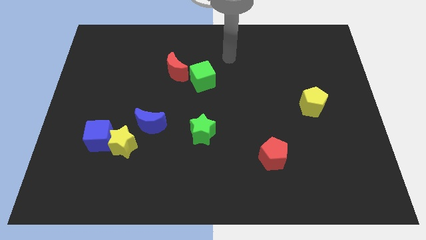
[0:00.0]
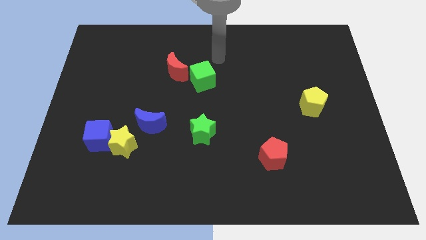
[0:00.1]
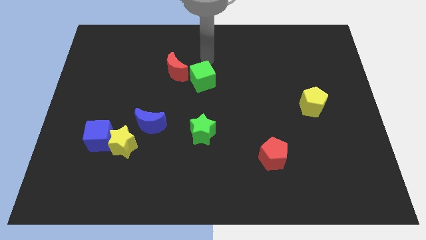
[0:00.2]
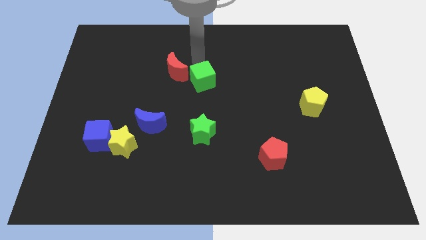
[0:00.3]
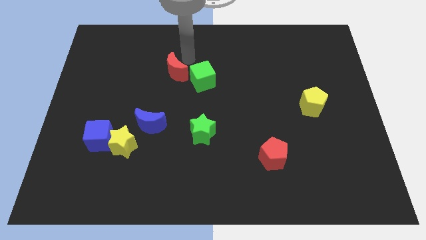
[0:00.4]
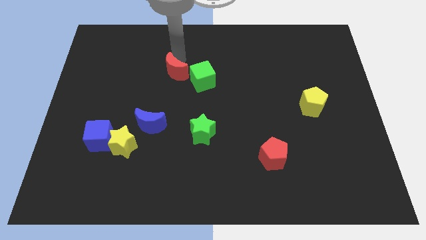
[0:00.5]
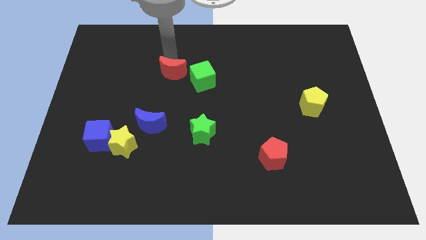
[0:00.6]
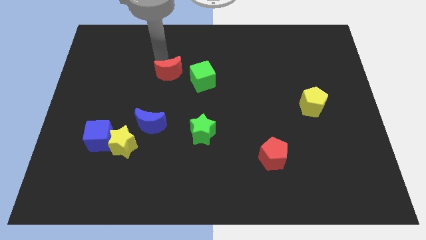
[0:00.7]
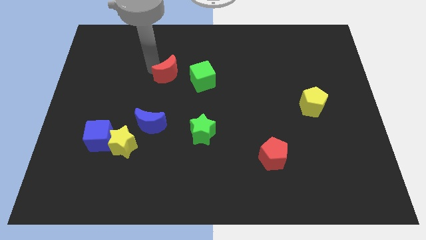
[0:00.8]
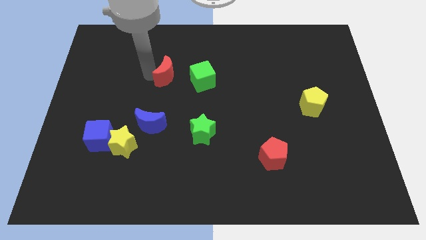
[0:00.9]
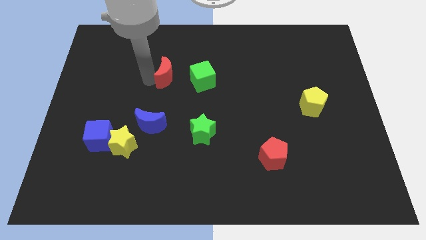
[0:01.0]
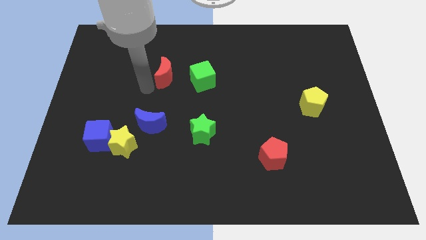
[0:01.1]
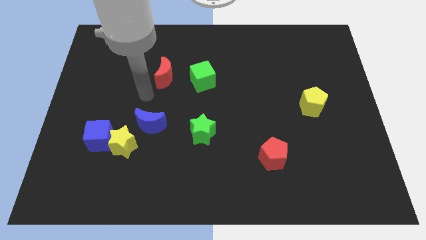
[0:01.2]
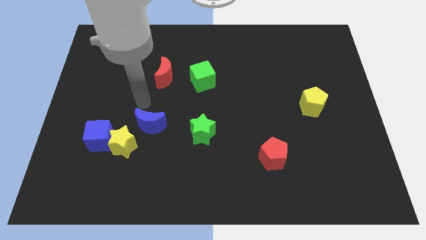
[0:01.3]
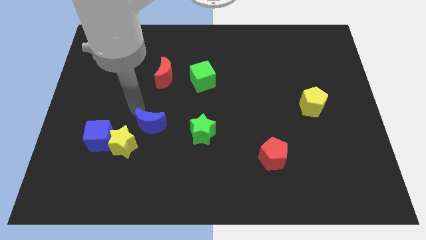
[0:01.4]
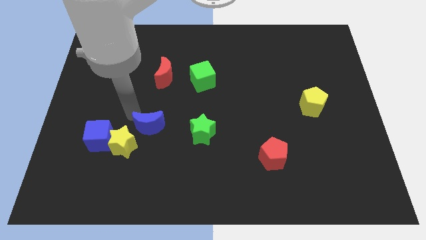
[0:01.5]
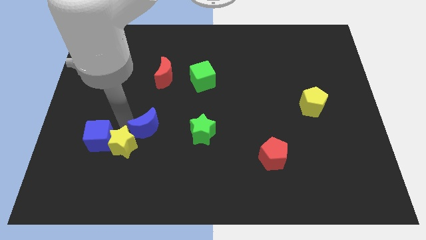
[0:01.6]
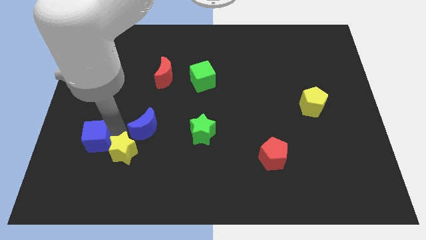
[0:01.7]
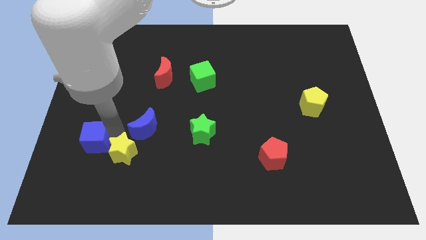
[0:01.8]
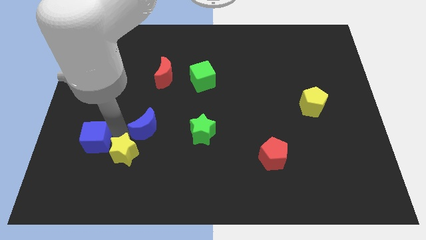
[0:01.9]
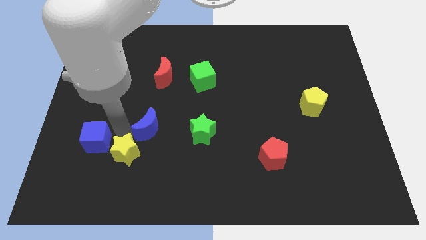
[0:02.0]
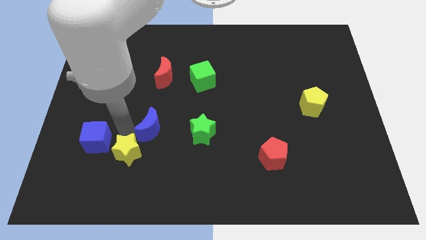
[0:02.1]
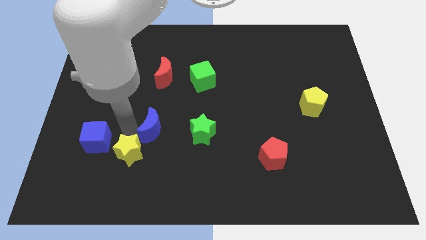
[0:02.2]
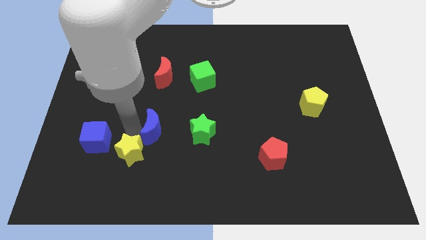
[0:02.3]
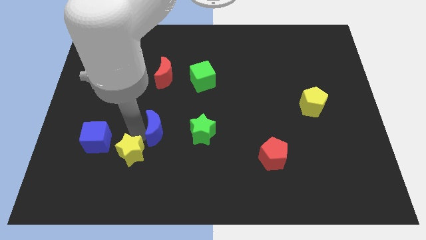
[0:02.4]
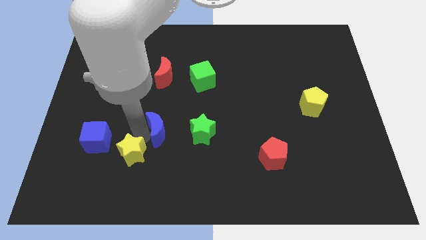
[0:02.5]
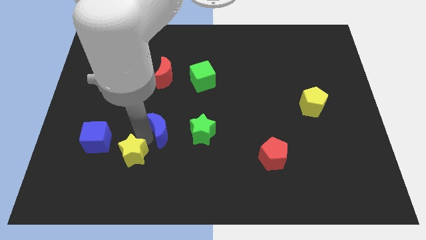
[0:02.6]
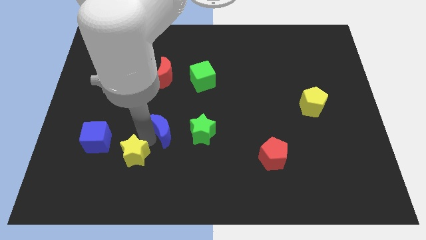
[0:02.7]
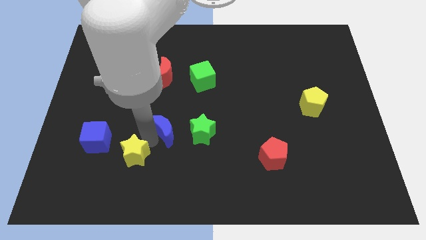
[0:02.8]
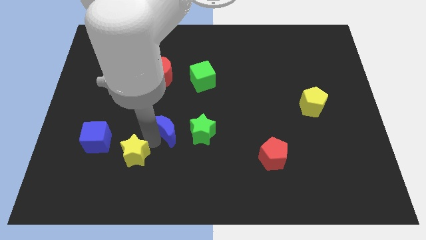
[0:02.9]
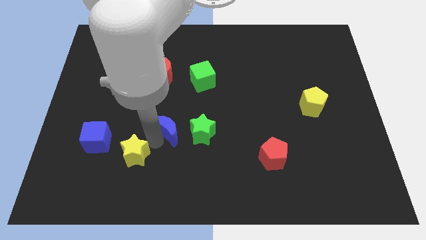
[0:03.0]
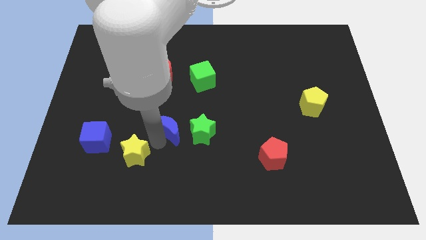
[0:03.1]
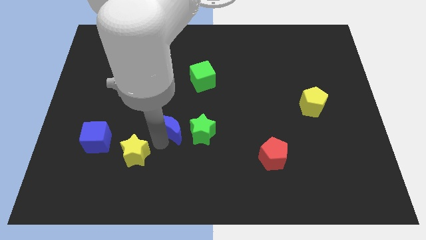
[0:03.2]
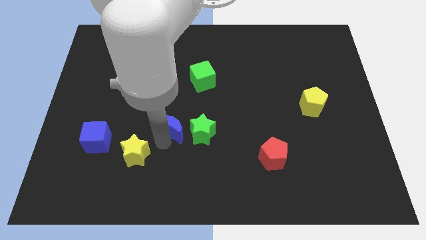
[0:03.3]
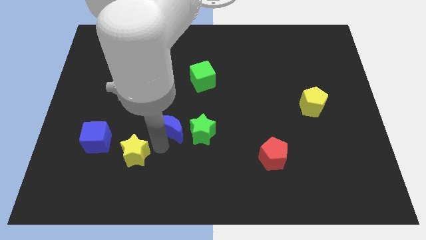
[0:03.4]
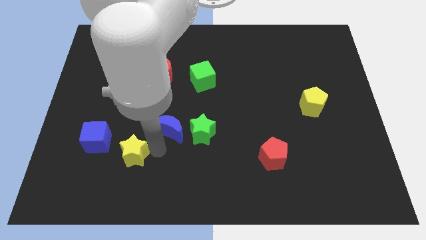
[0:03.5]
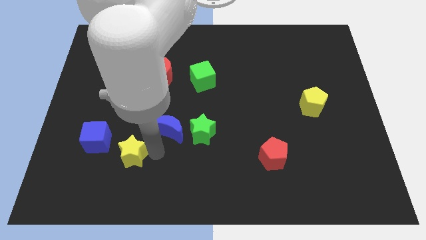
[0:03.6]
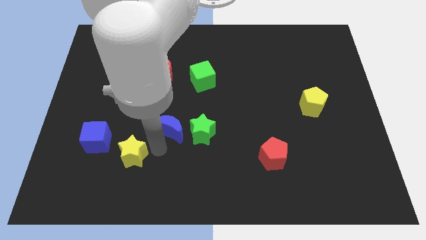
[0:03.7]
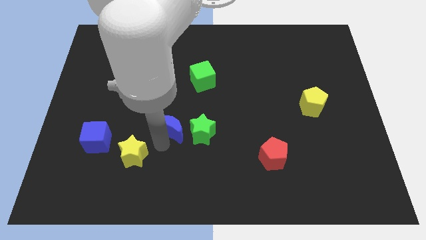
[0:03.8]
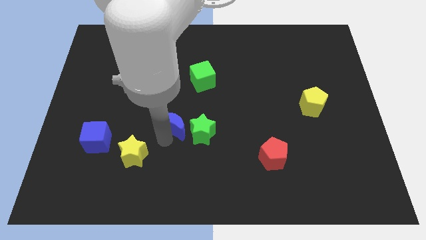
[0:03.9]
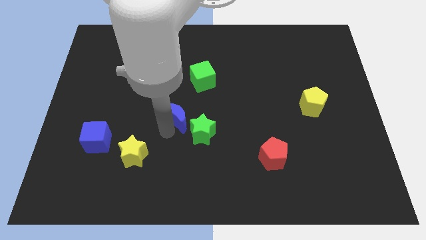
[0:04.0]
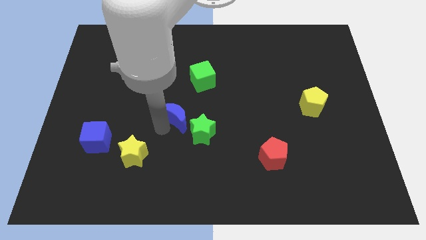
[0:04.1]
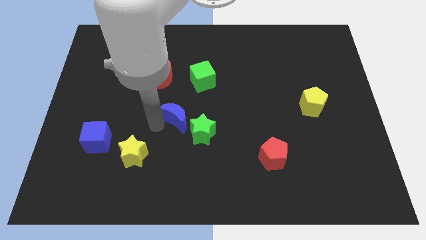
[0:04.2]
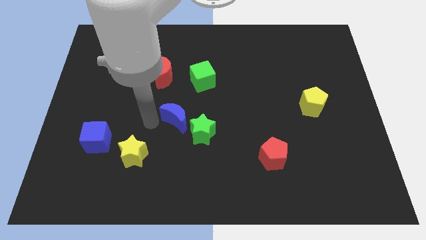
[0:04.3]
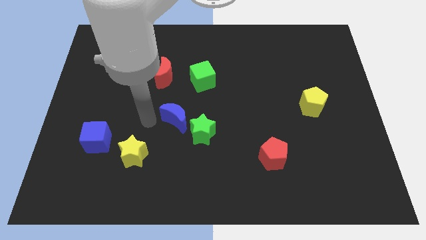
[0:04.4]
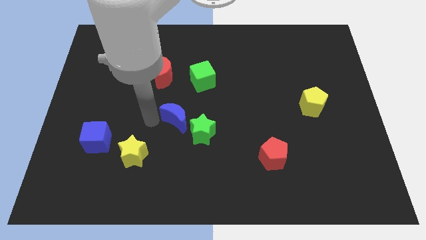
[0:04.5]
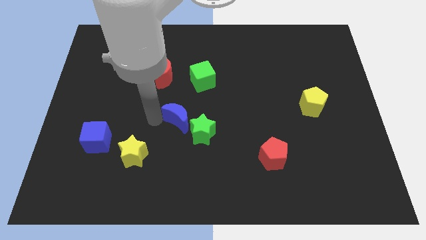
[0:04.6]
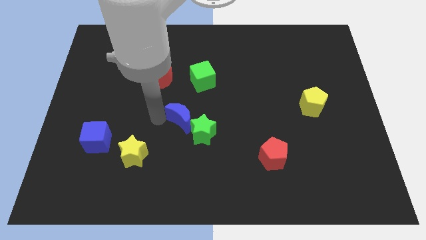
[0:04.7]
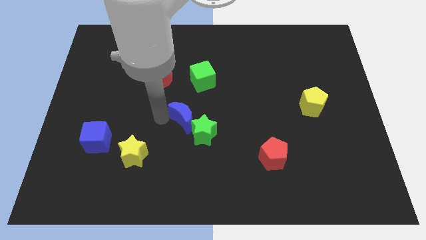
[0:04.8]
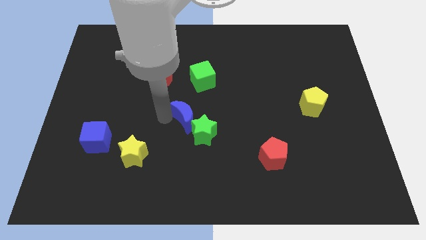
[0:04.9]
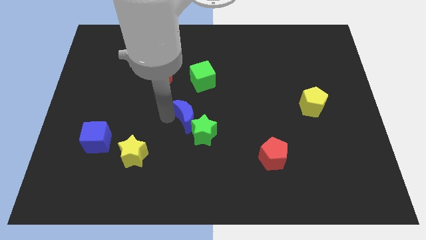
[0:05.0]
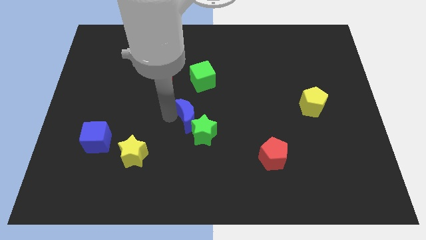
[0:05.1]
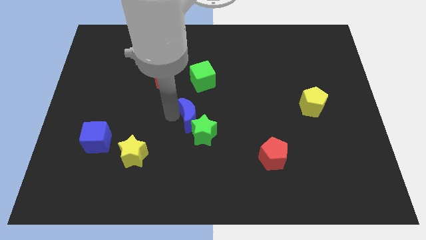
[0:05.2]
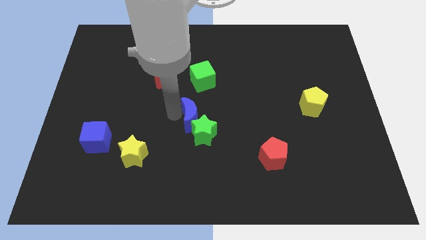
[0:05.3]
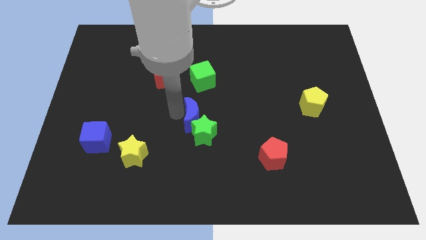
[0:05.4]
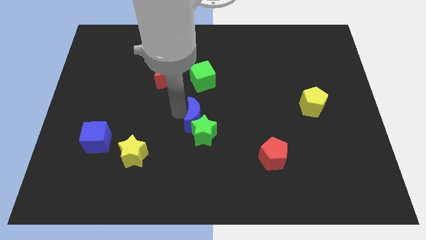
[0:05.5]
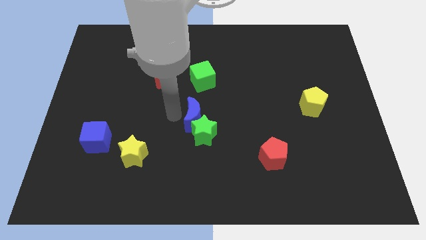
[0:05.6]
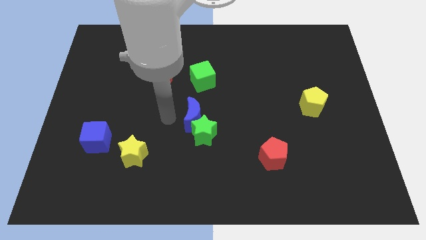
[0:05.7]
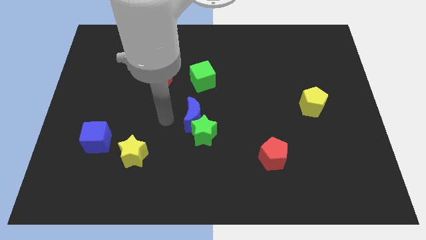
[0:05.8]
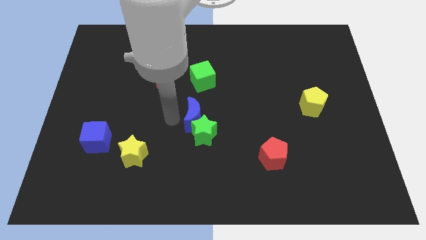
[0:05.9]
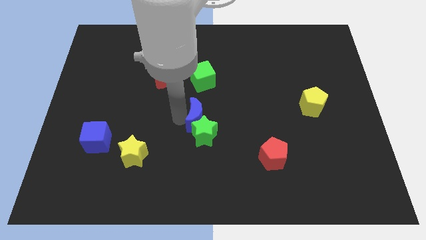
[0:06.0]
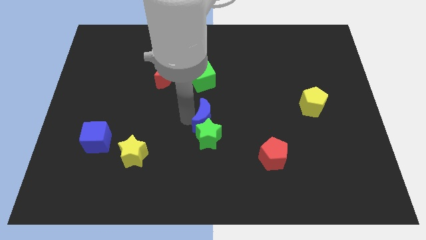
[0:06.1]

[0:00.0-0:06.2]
move the blue moon diagonally up and to the right of the green star

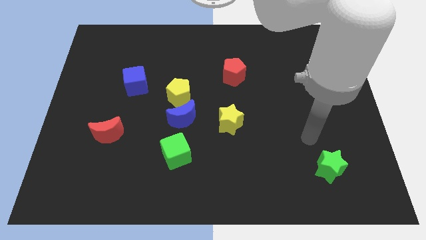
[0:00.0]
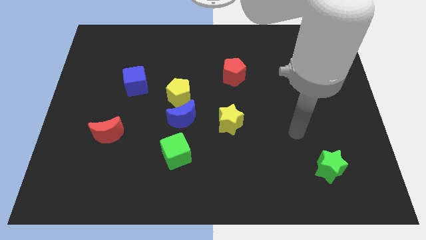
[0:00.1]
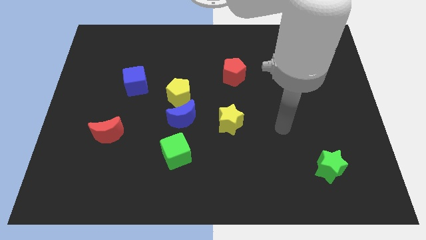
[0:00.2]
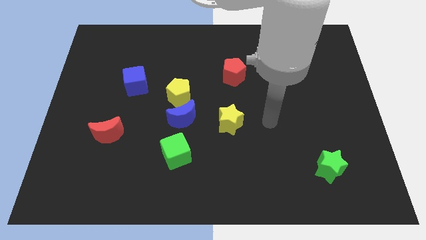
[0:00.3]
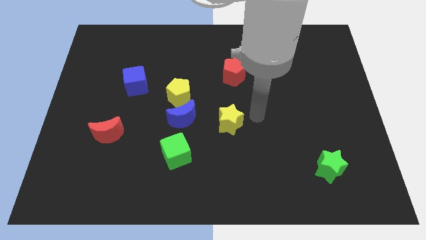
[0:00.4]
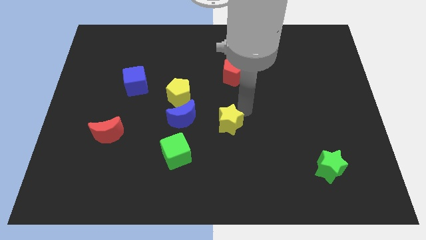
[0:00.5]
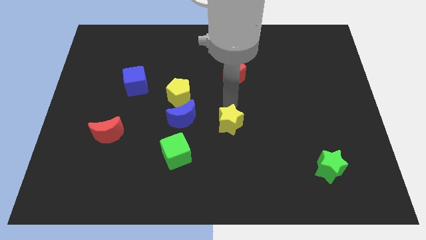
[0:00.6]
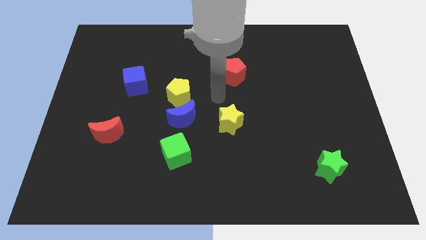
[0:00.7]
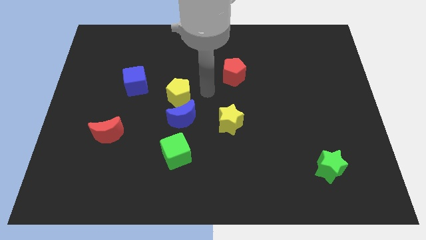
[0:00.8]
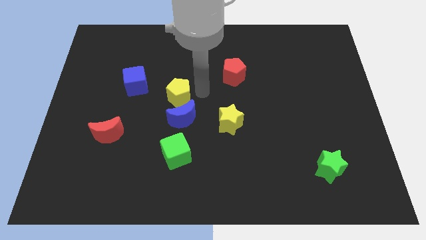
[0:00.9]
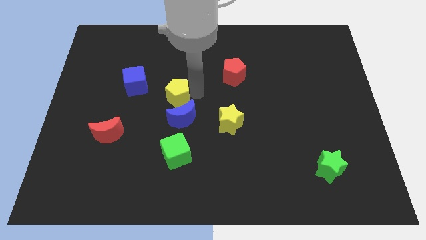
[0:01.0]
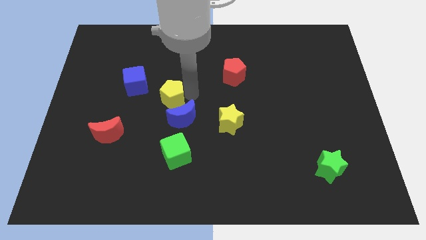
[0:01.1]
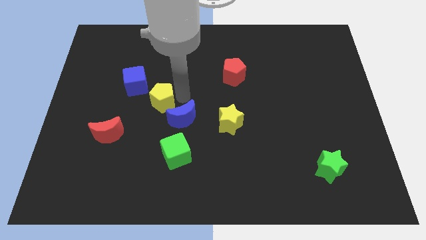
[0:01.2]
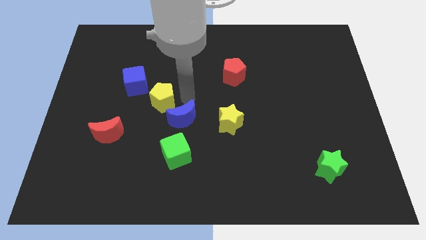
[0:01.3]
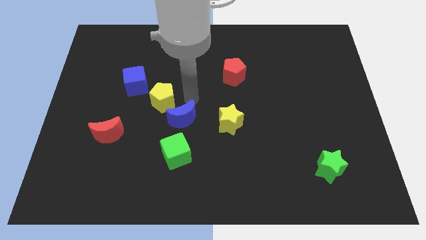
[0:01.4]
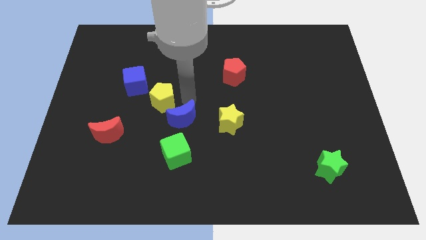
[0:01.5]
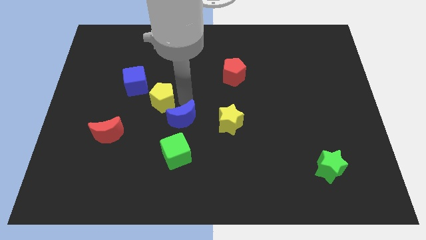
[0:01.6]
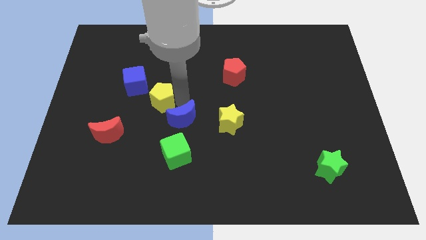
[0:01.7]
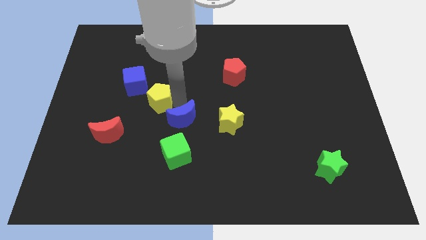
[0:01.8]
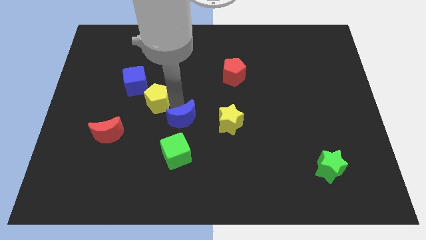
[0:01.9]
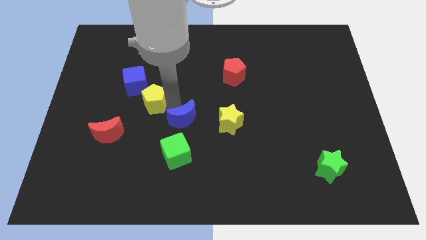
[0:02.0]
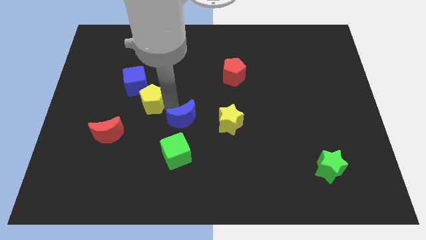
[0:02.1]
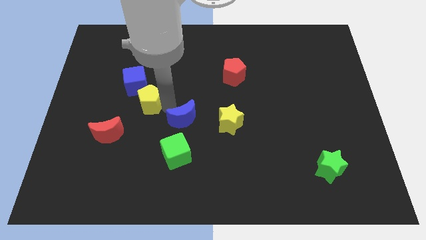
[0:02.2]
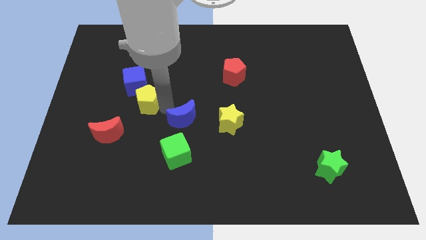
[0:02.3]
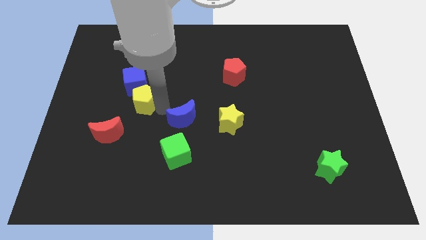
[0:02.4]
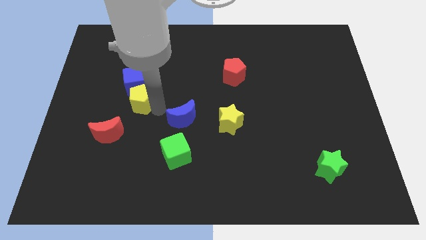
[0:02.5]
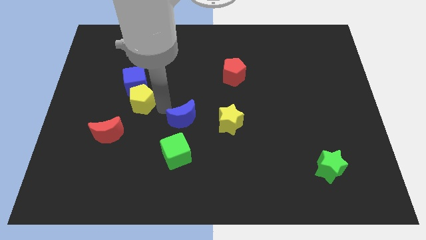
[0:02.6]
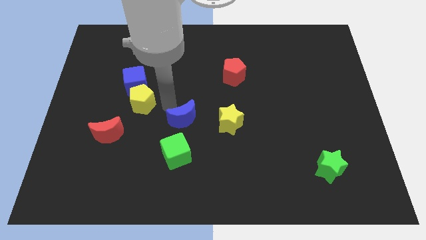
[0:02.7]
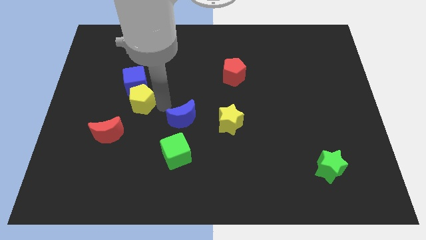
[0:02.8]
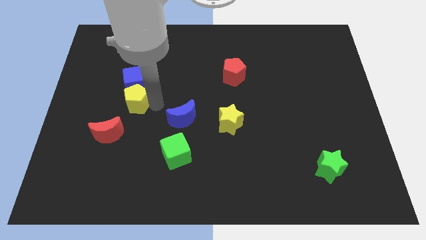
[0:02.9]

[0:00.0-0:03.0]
slide the yellow pentagon to the bottom left side of the blue cube
